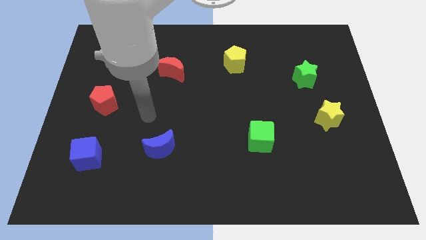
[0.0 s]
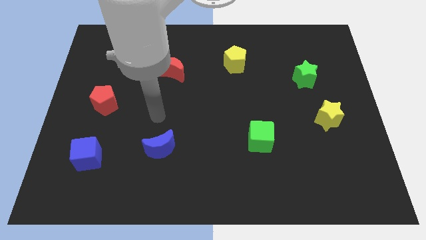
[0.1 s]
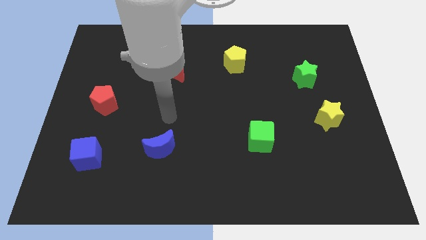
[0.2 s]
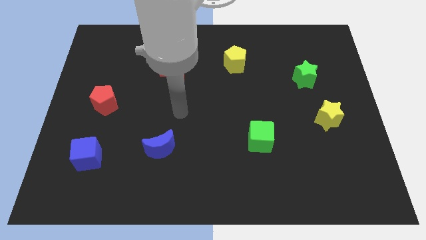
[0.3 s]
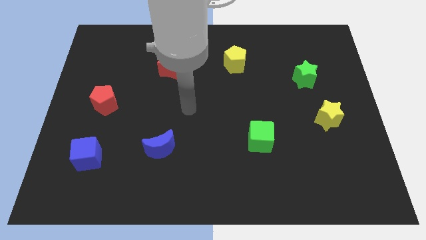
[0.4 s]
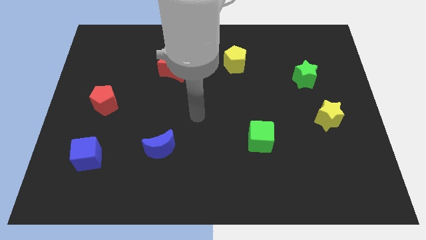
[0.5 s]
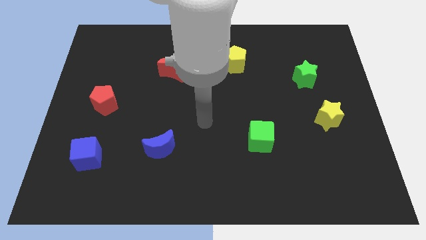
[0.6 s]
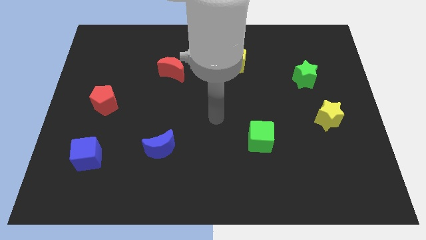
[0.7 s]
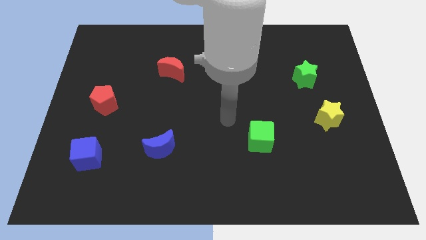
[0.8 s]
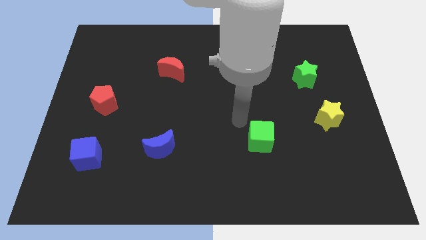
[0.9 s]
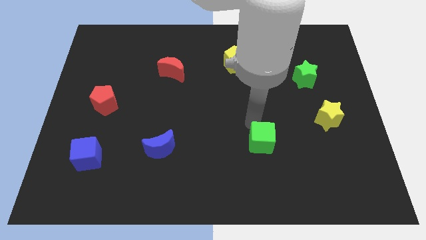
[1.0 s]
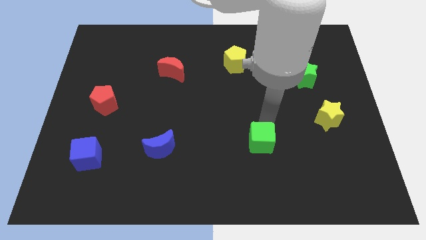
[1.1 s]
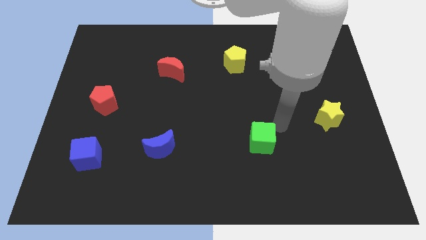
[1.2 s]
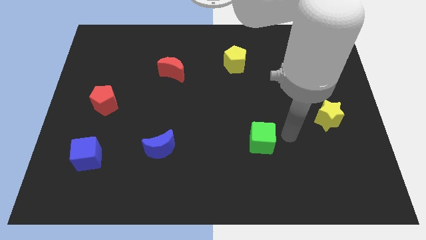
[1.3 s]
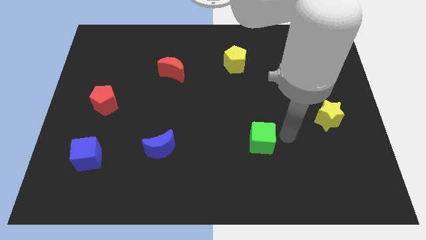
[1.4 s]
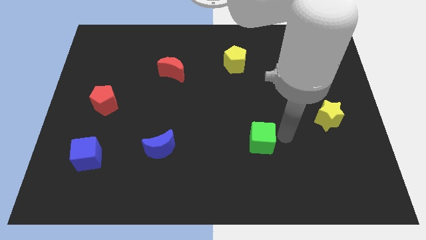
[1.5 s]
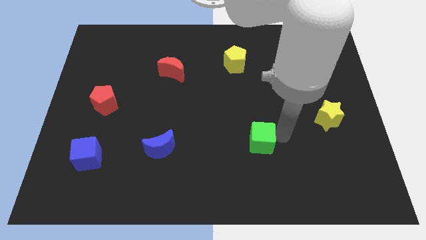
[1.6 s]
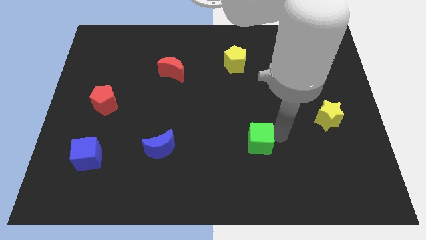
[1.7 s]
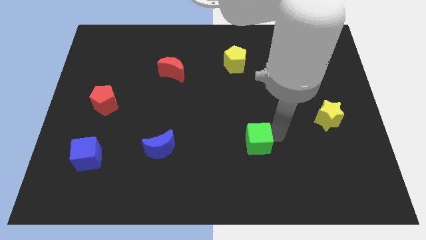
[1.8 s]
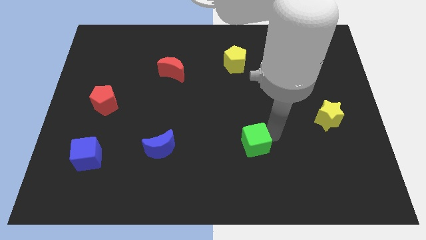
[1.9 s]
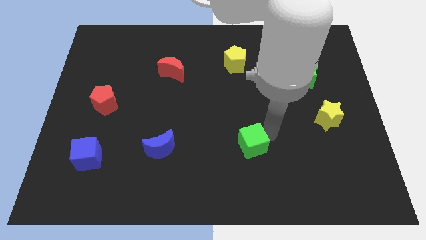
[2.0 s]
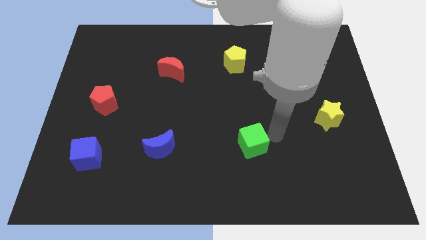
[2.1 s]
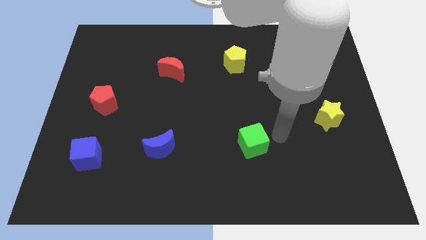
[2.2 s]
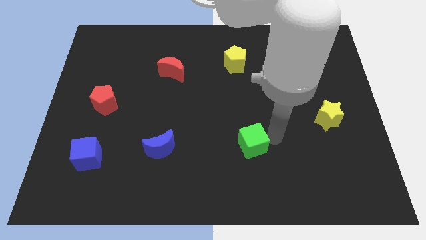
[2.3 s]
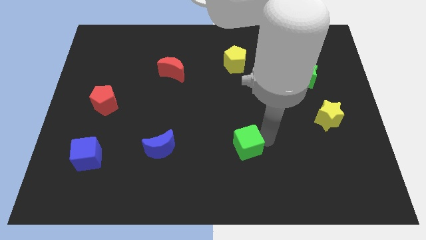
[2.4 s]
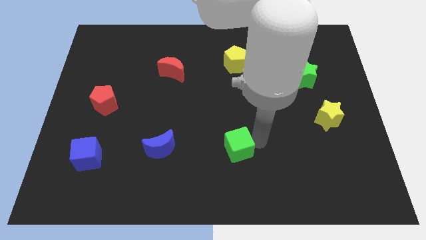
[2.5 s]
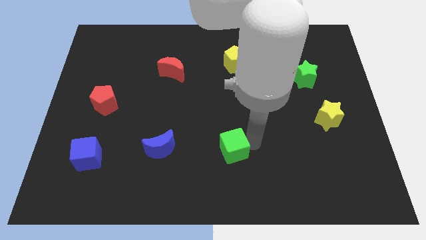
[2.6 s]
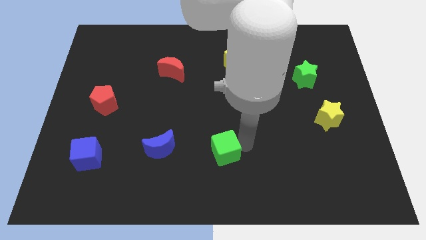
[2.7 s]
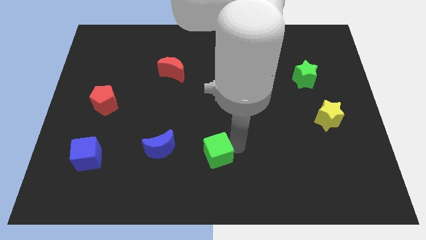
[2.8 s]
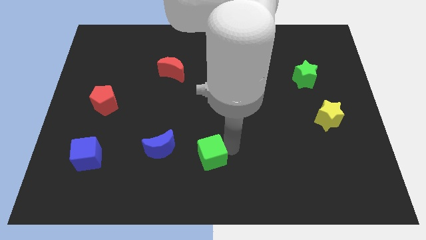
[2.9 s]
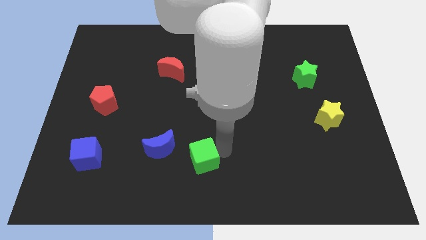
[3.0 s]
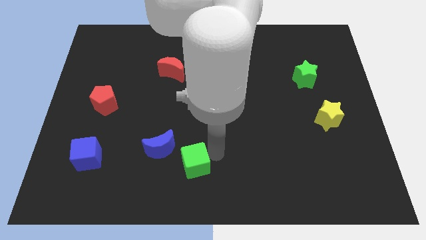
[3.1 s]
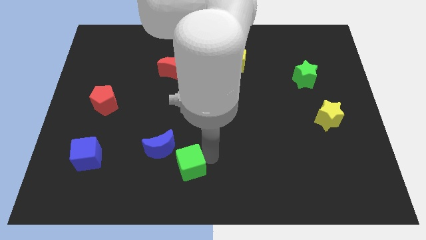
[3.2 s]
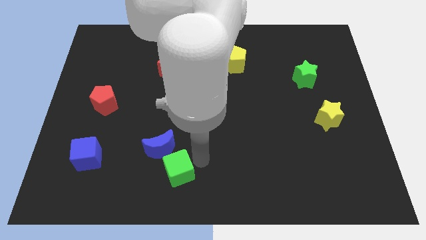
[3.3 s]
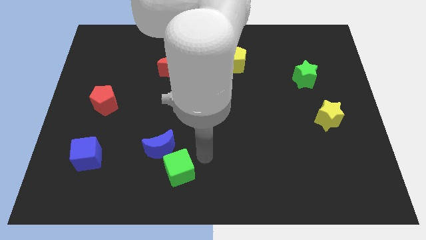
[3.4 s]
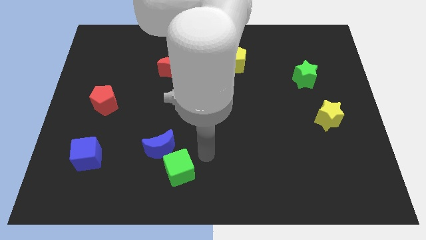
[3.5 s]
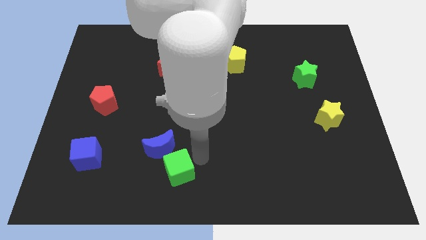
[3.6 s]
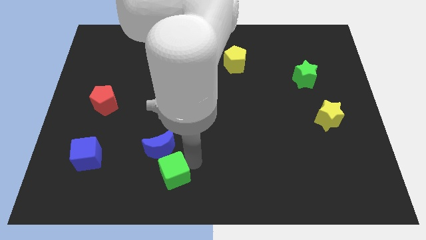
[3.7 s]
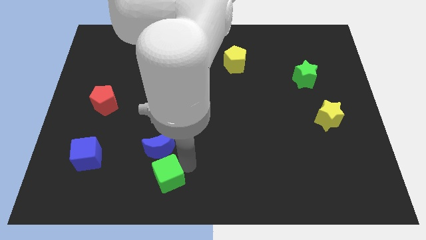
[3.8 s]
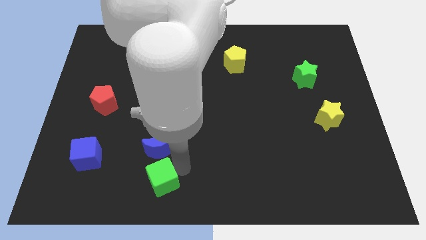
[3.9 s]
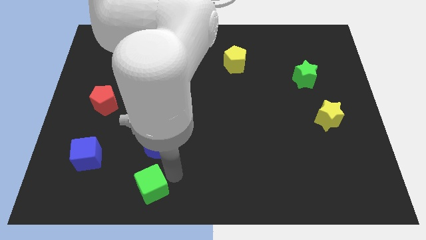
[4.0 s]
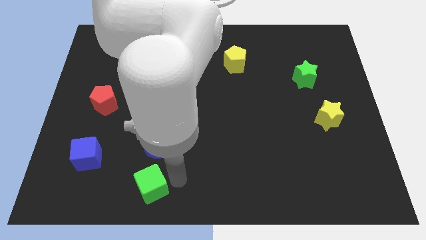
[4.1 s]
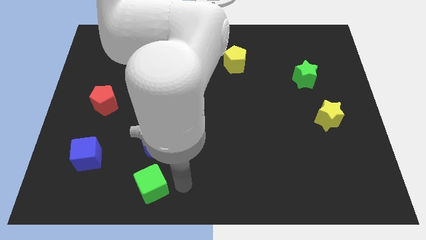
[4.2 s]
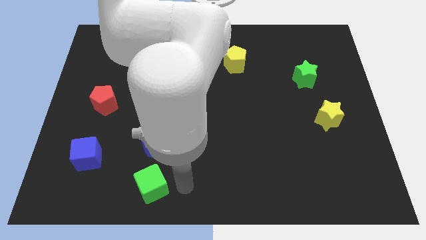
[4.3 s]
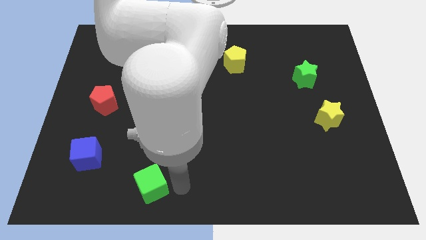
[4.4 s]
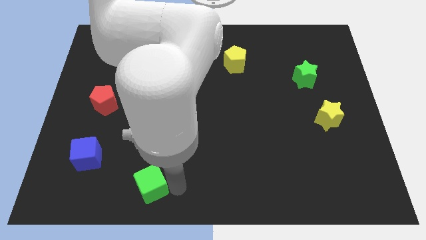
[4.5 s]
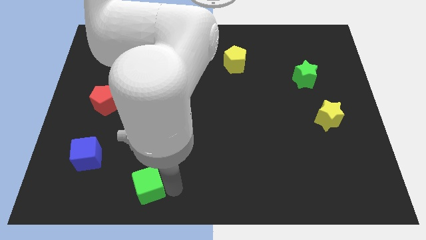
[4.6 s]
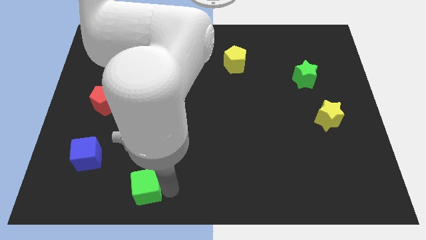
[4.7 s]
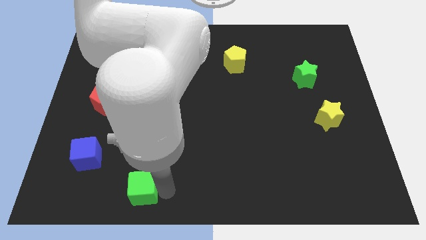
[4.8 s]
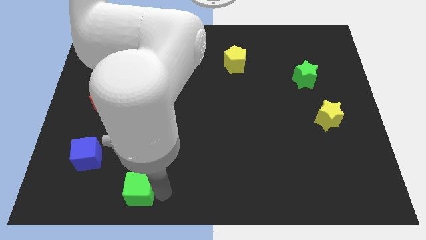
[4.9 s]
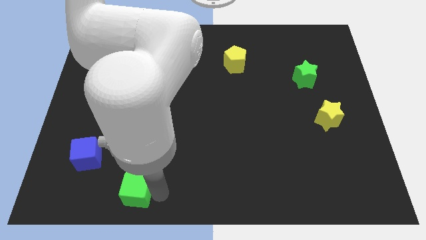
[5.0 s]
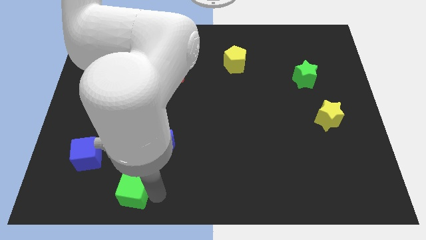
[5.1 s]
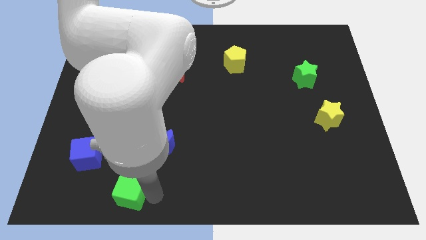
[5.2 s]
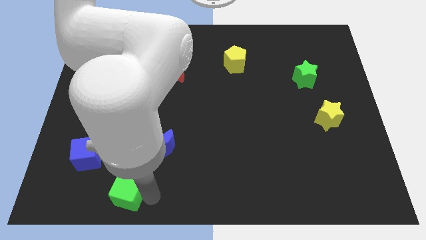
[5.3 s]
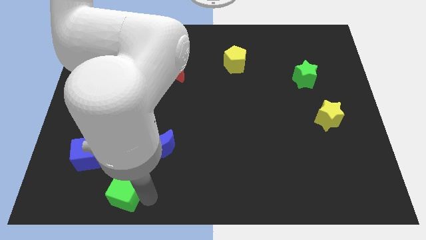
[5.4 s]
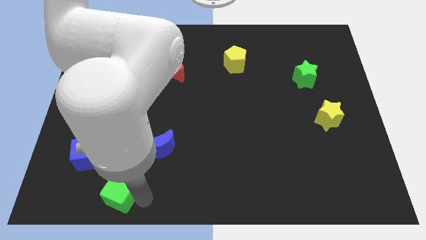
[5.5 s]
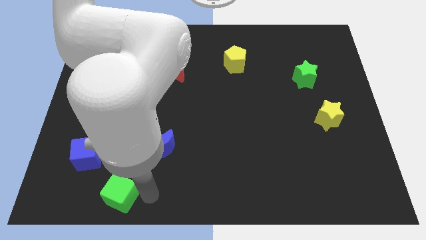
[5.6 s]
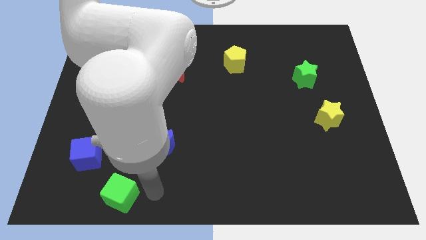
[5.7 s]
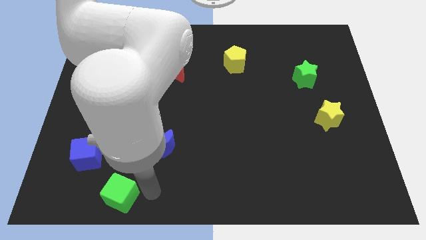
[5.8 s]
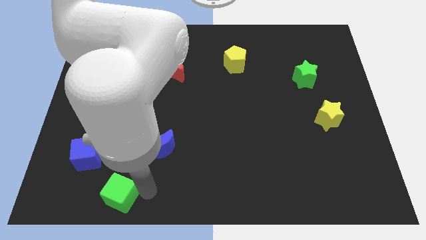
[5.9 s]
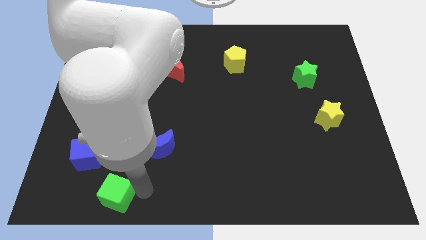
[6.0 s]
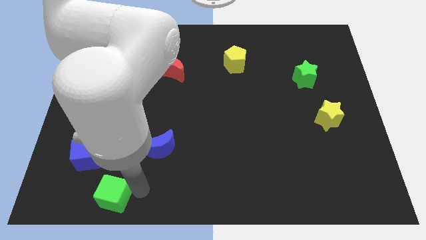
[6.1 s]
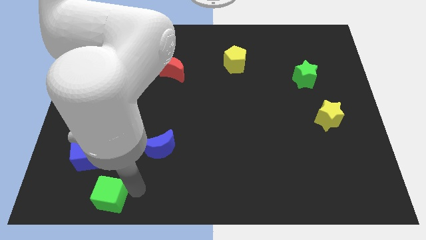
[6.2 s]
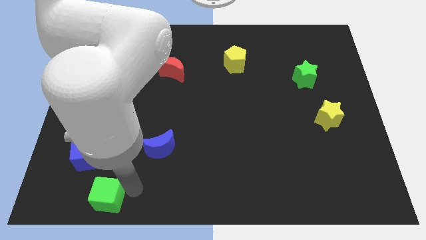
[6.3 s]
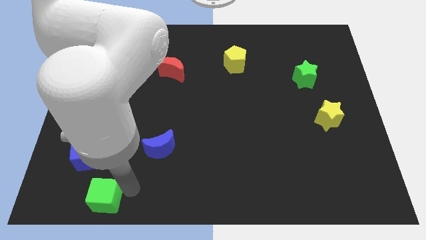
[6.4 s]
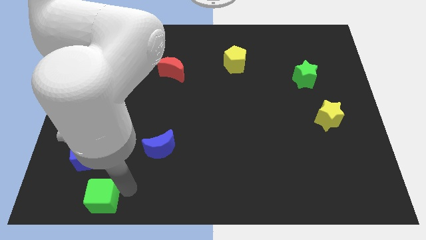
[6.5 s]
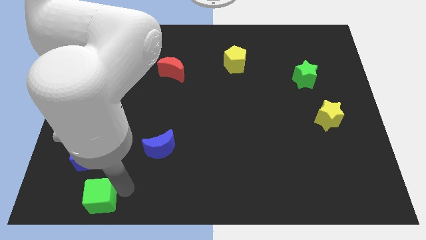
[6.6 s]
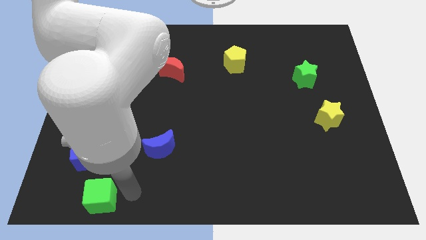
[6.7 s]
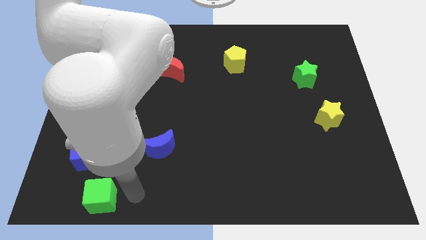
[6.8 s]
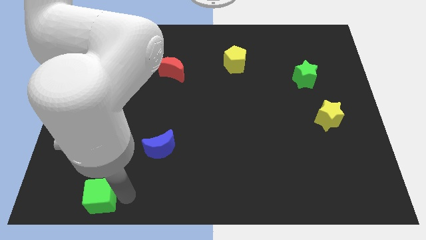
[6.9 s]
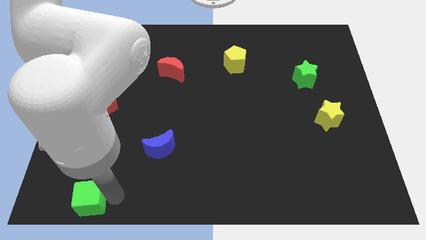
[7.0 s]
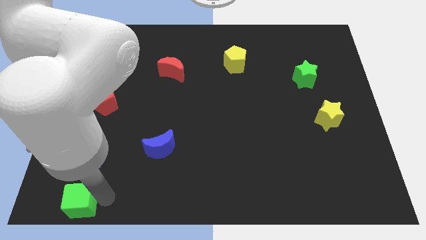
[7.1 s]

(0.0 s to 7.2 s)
push the green cube to the lower left corner

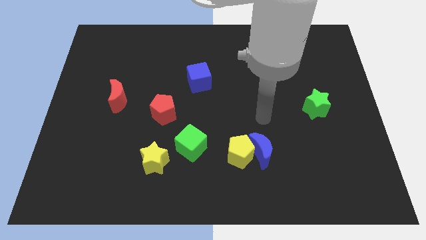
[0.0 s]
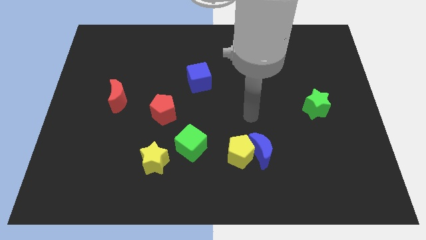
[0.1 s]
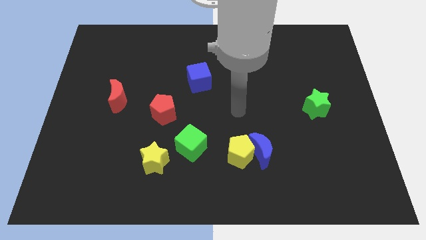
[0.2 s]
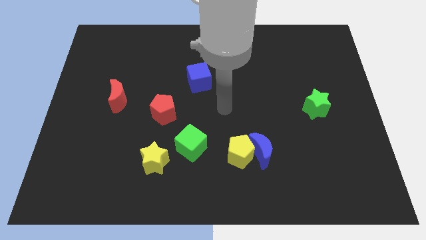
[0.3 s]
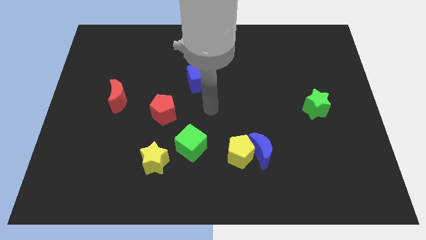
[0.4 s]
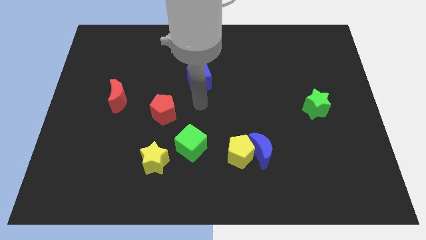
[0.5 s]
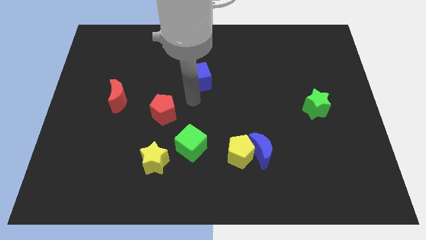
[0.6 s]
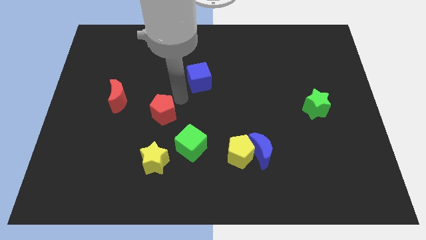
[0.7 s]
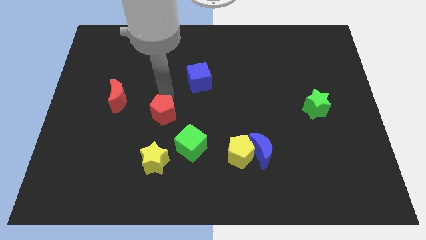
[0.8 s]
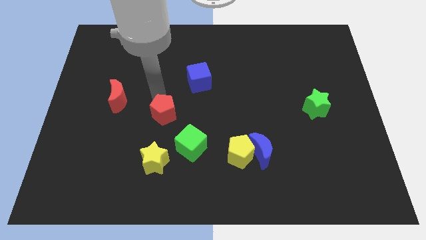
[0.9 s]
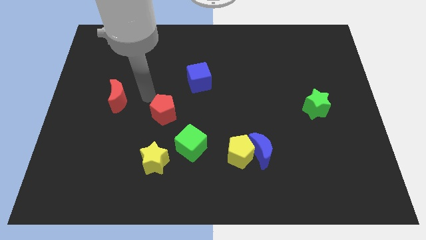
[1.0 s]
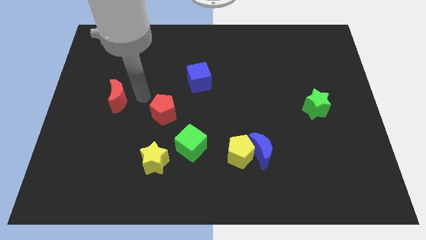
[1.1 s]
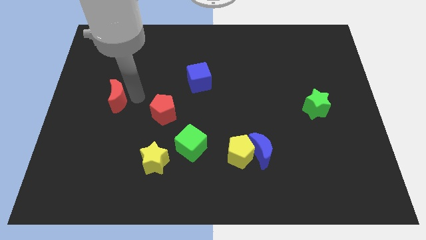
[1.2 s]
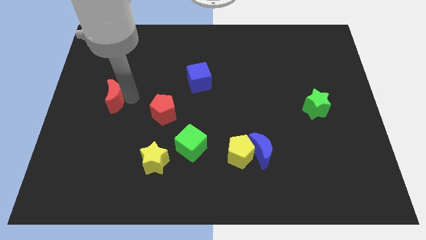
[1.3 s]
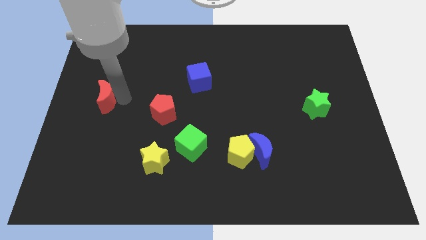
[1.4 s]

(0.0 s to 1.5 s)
move the red moon to the center left
